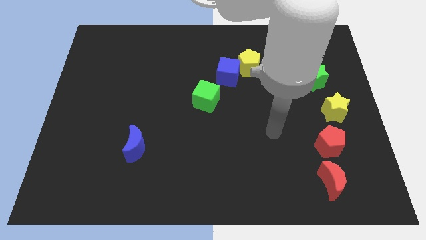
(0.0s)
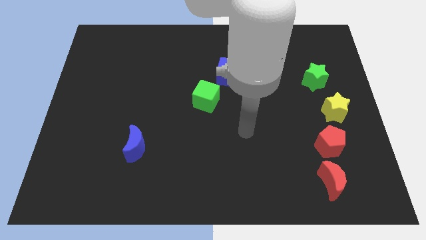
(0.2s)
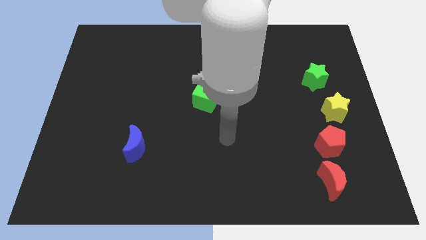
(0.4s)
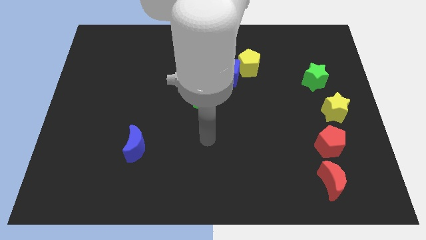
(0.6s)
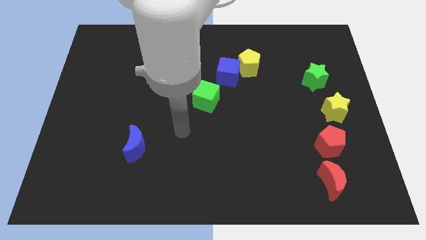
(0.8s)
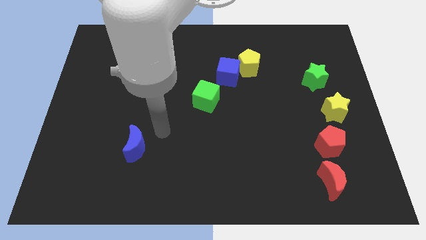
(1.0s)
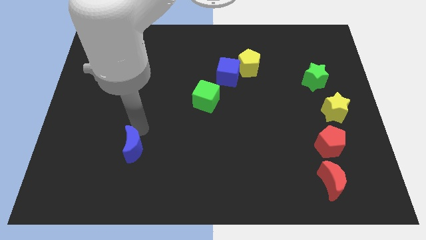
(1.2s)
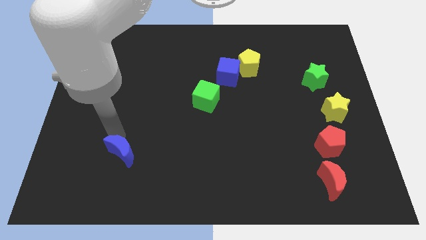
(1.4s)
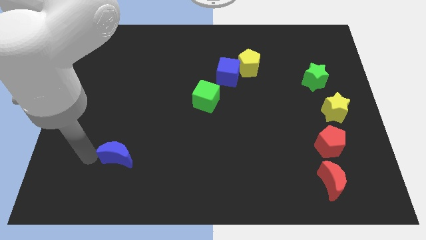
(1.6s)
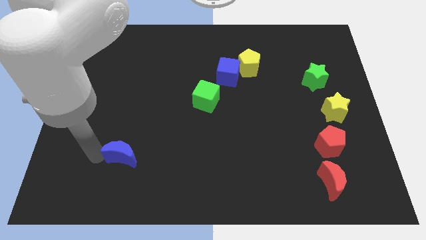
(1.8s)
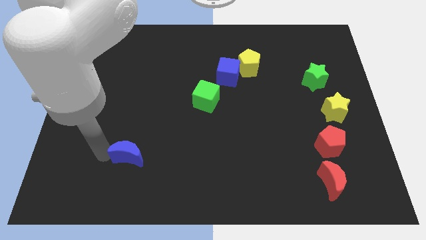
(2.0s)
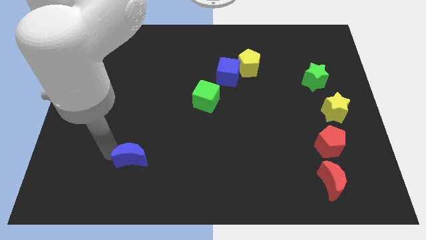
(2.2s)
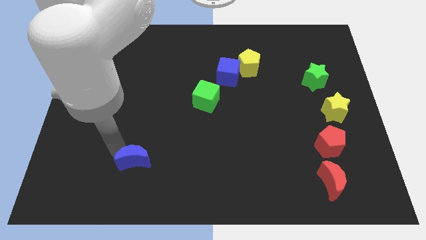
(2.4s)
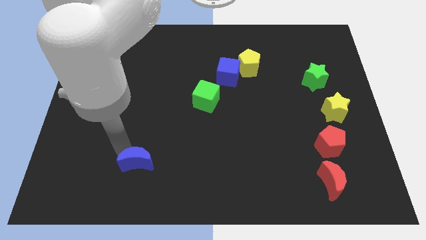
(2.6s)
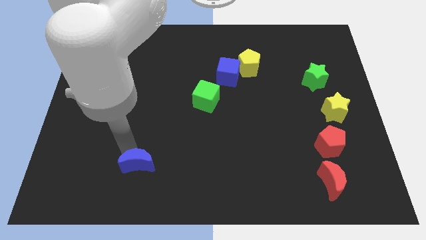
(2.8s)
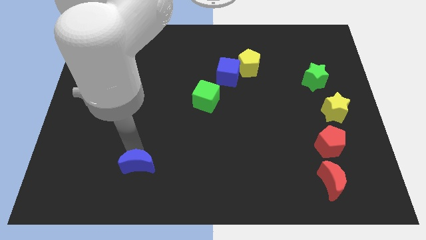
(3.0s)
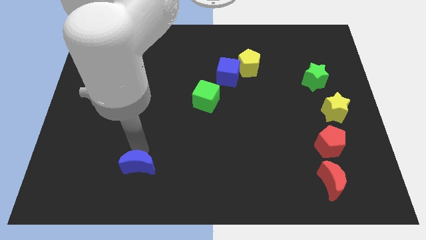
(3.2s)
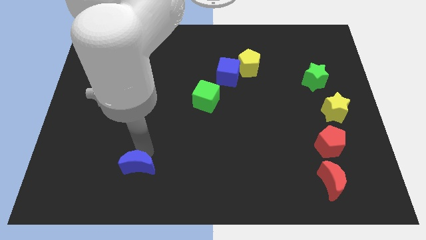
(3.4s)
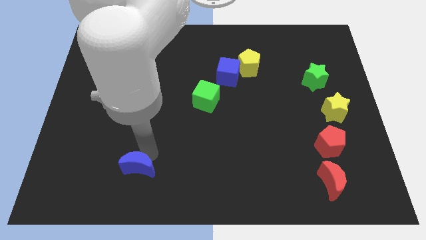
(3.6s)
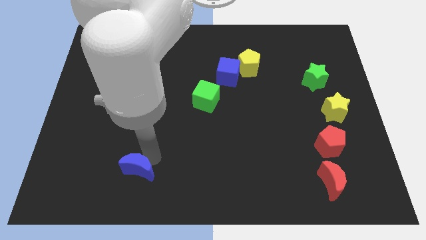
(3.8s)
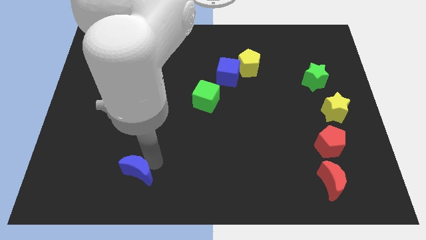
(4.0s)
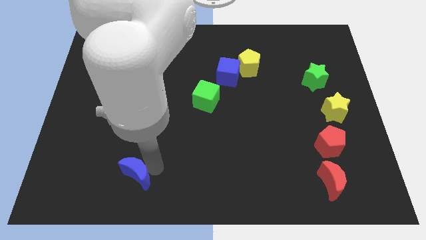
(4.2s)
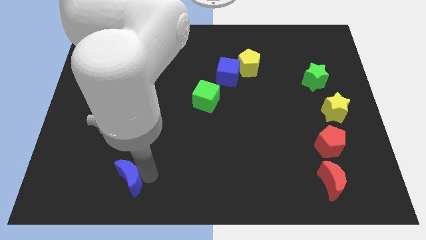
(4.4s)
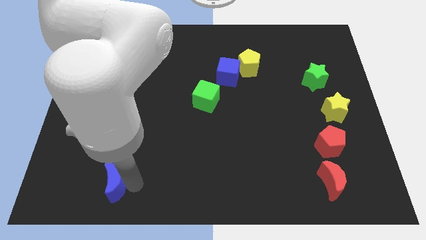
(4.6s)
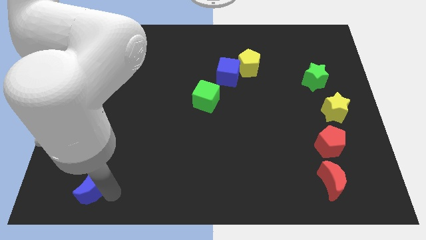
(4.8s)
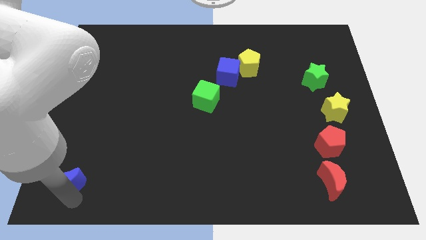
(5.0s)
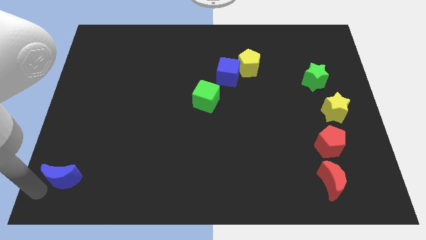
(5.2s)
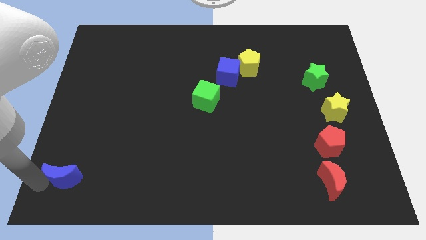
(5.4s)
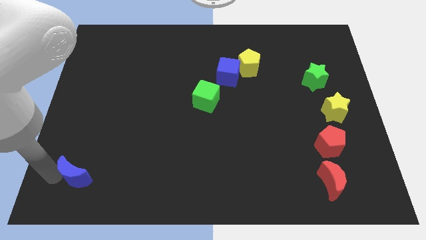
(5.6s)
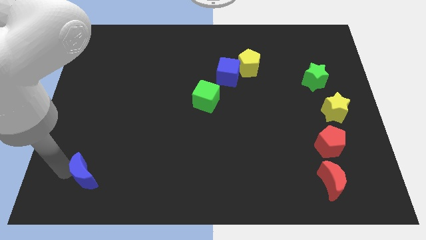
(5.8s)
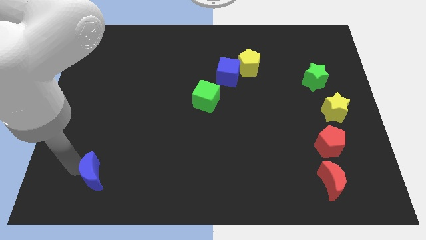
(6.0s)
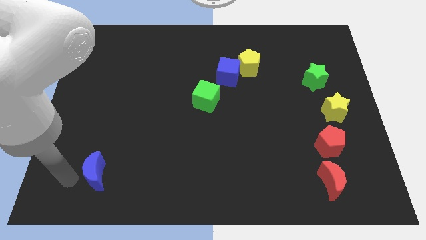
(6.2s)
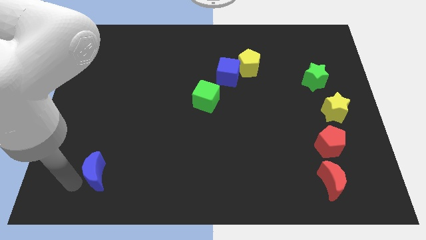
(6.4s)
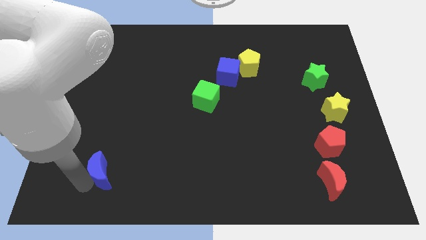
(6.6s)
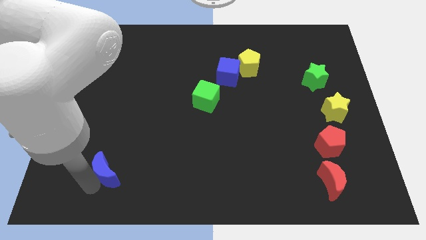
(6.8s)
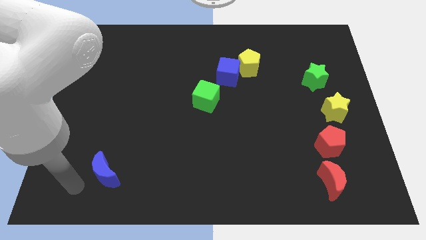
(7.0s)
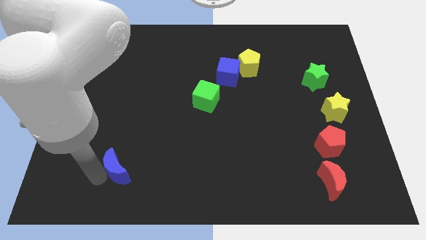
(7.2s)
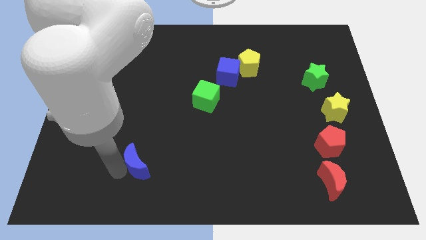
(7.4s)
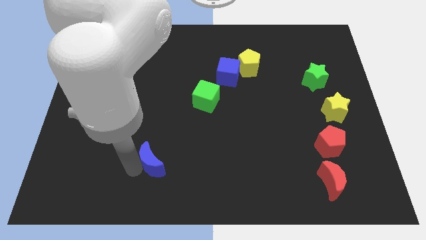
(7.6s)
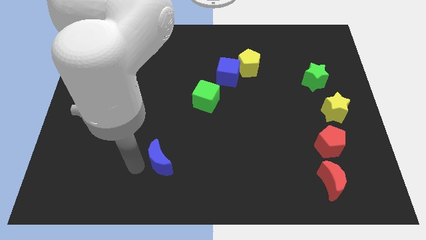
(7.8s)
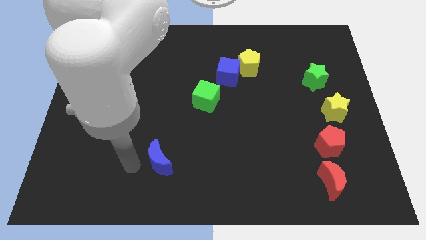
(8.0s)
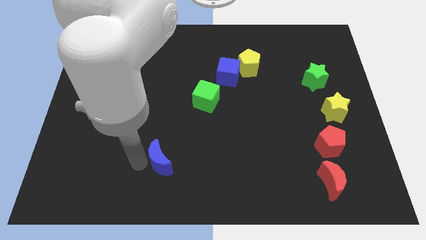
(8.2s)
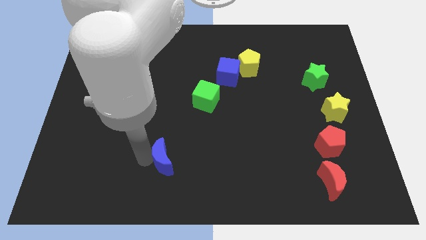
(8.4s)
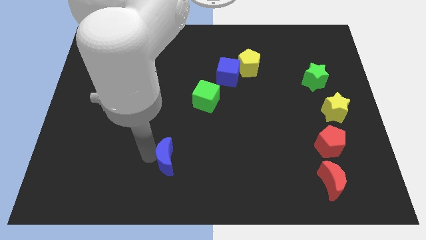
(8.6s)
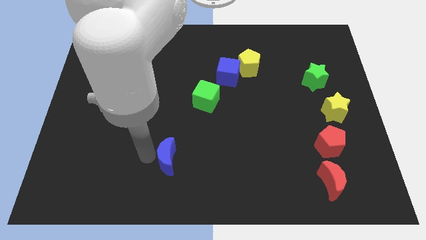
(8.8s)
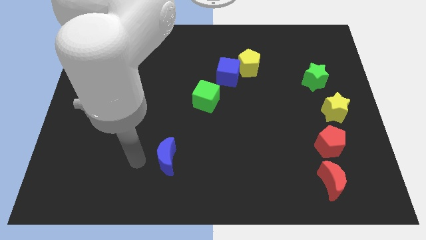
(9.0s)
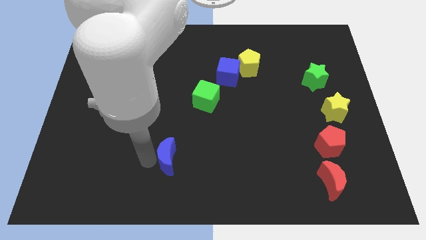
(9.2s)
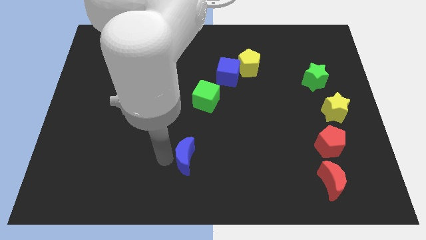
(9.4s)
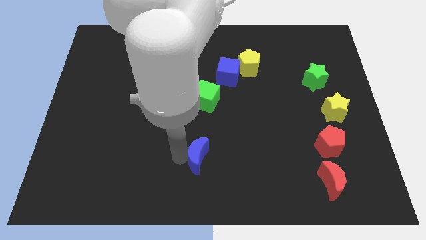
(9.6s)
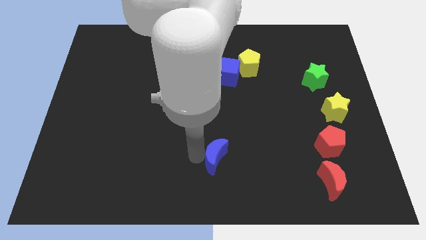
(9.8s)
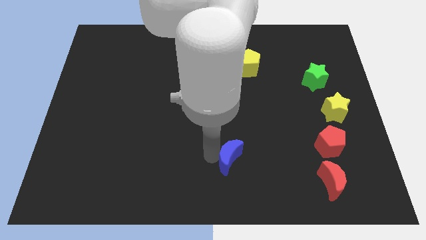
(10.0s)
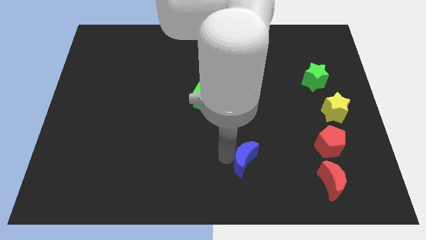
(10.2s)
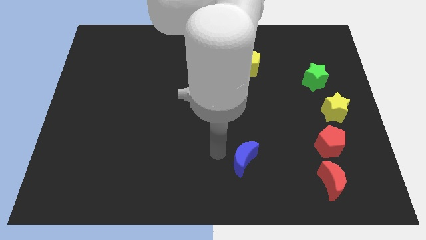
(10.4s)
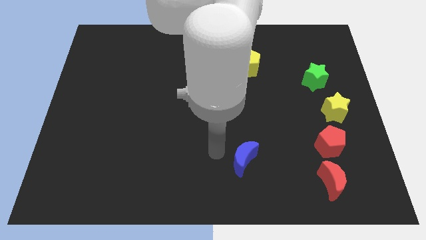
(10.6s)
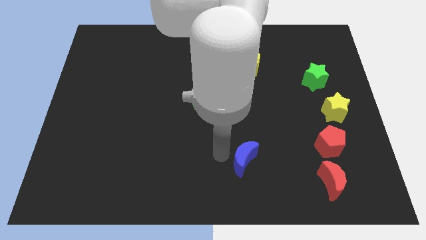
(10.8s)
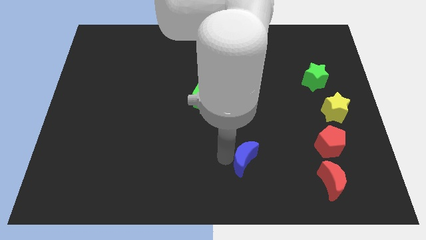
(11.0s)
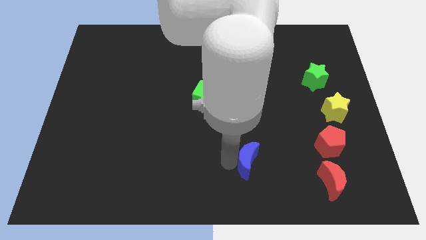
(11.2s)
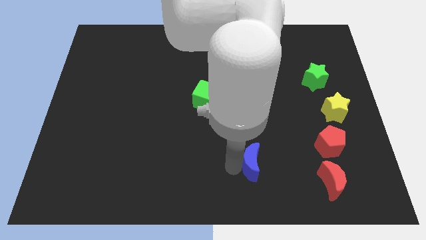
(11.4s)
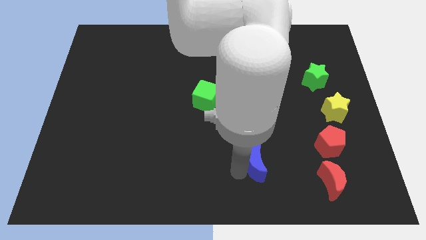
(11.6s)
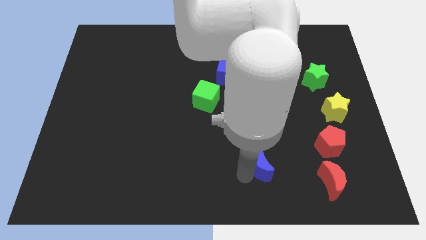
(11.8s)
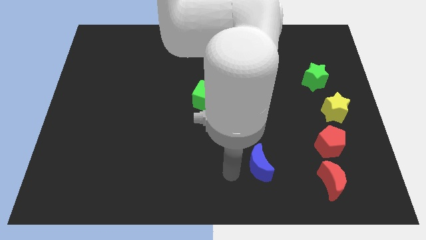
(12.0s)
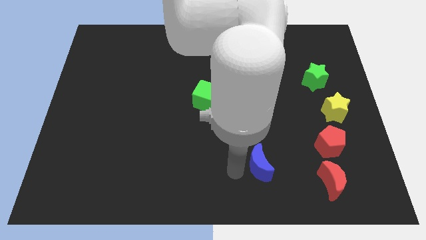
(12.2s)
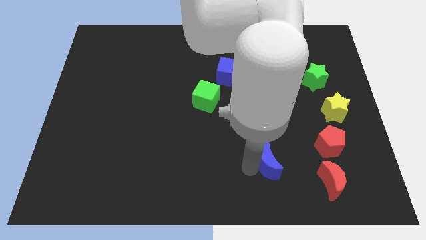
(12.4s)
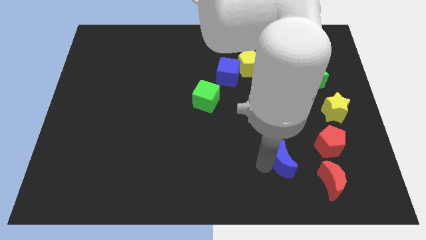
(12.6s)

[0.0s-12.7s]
put the blue moon to the top left side of the red moon

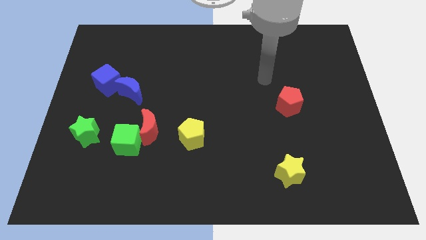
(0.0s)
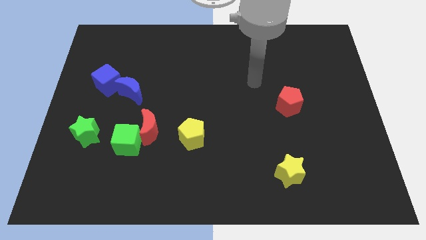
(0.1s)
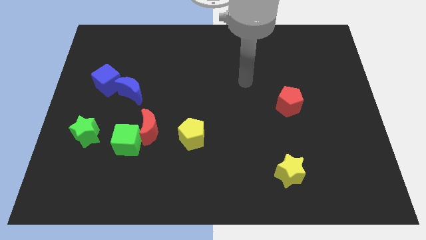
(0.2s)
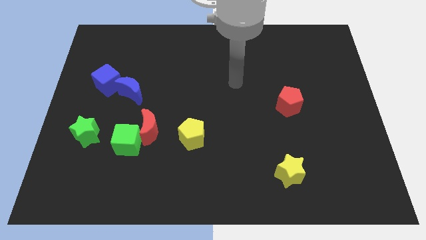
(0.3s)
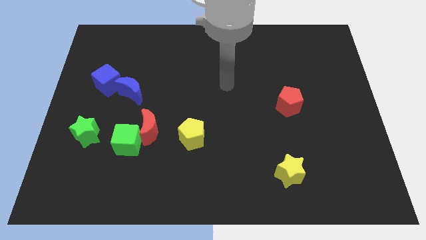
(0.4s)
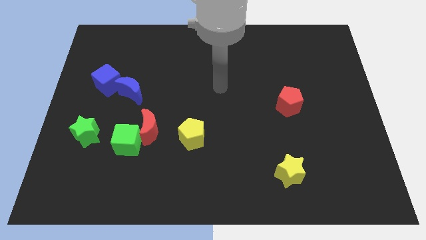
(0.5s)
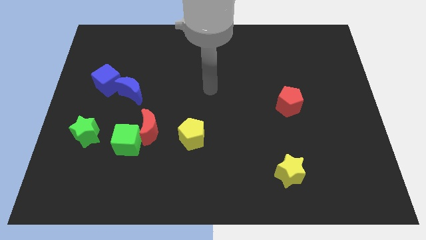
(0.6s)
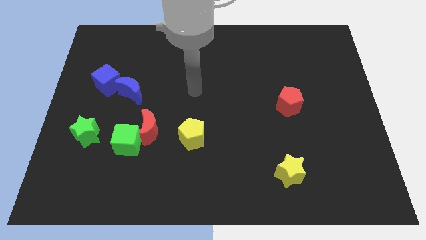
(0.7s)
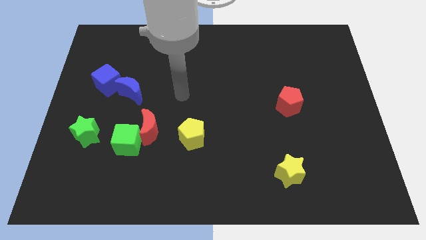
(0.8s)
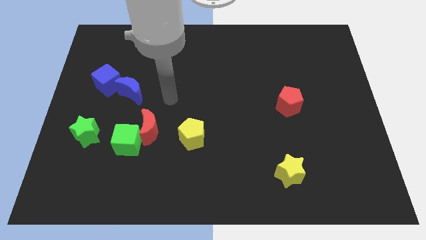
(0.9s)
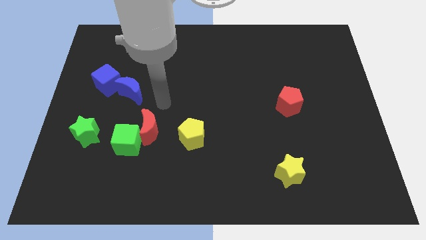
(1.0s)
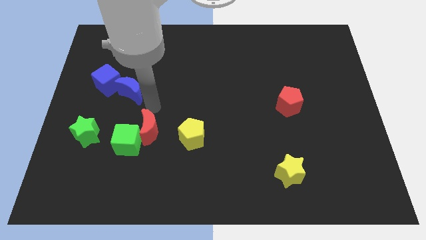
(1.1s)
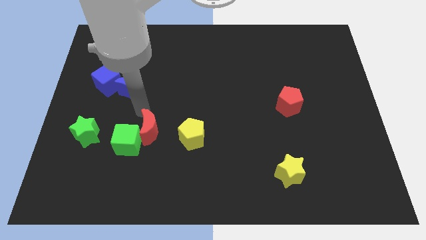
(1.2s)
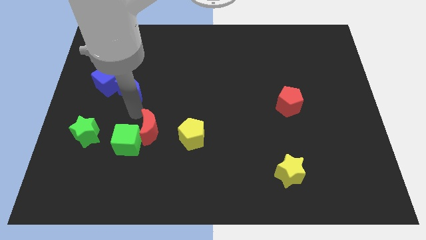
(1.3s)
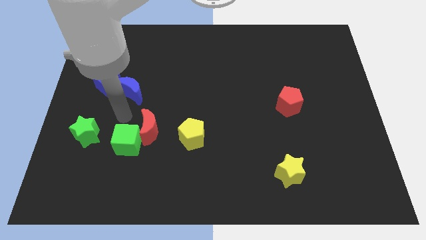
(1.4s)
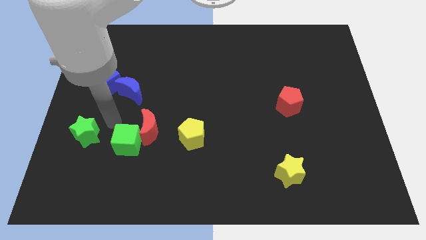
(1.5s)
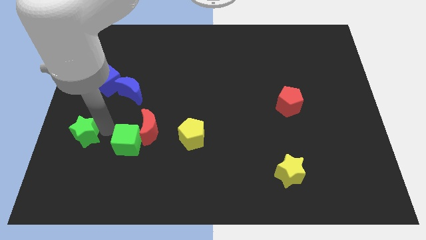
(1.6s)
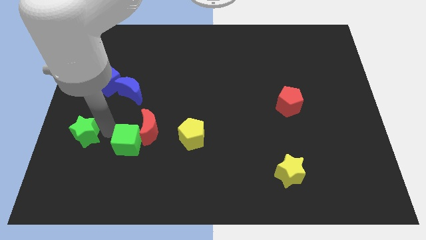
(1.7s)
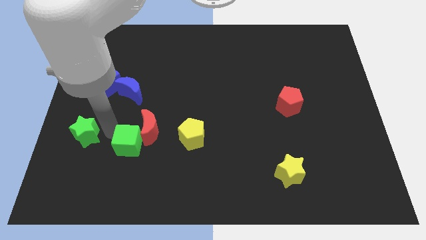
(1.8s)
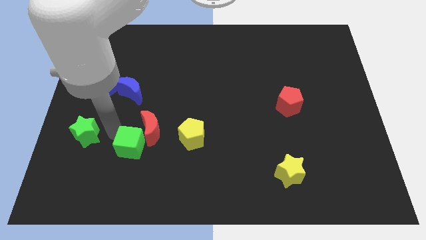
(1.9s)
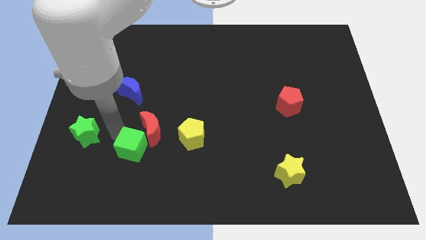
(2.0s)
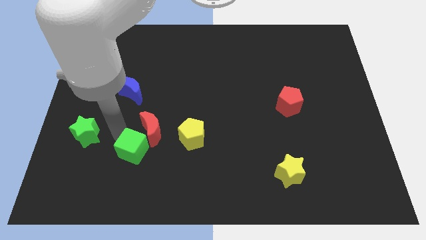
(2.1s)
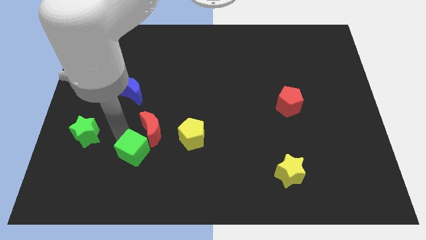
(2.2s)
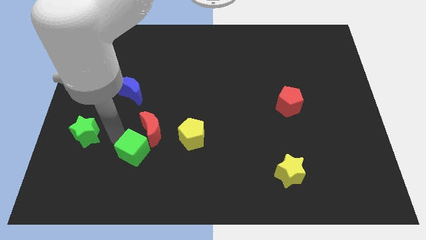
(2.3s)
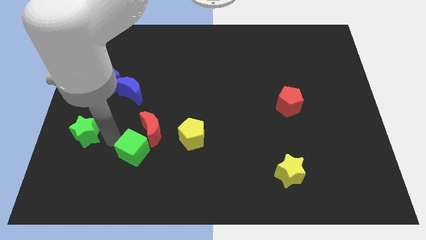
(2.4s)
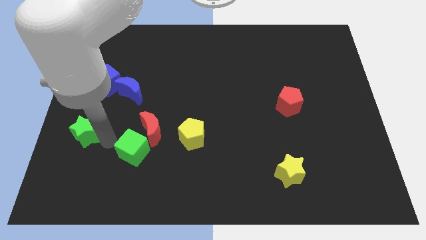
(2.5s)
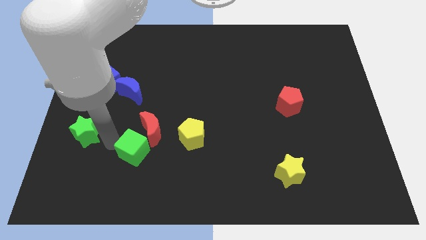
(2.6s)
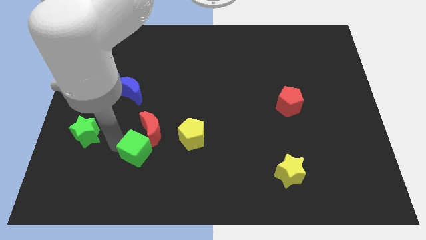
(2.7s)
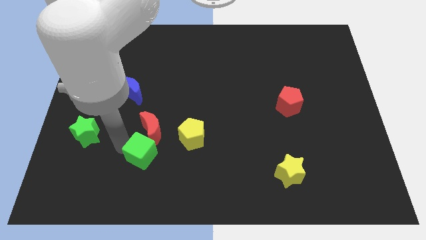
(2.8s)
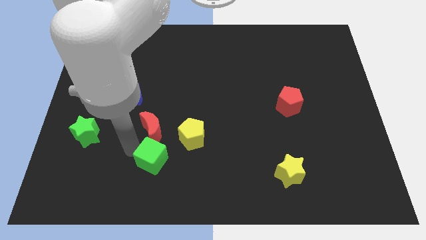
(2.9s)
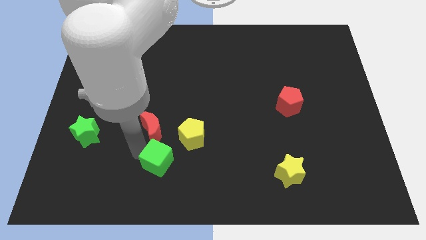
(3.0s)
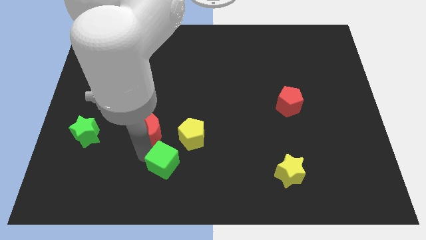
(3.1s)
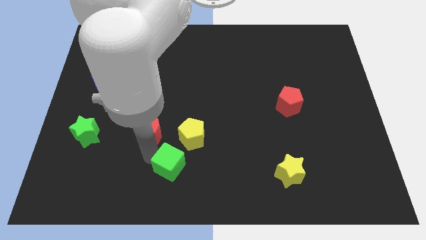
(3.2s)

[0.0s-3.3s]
push the green cube to the bottom of the yellow pentagon
